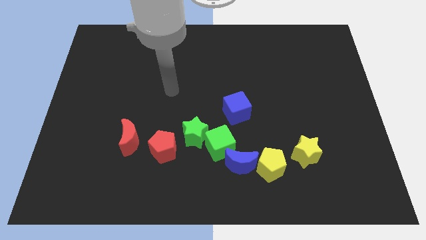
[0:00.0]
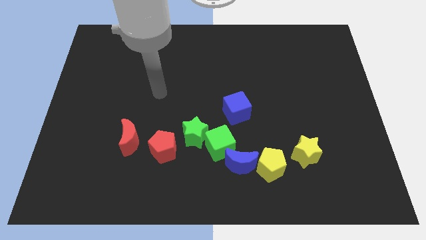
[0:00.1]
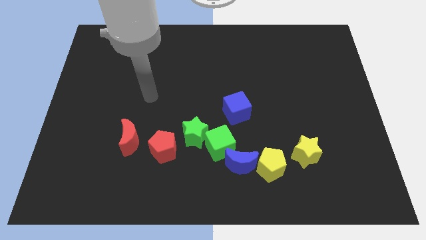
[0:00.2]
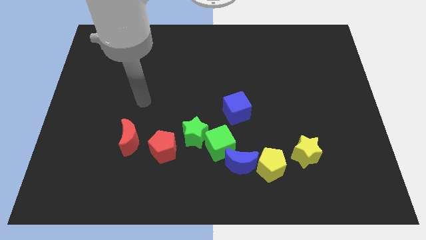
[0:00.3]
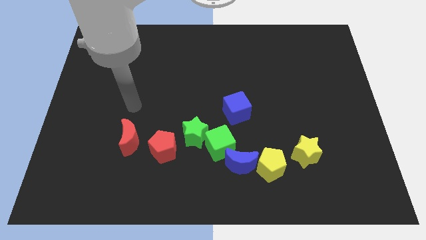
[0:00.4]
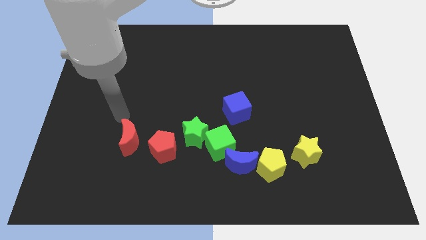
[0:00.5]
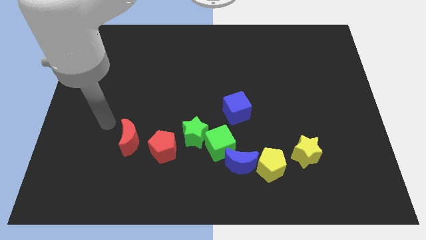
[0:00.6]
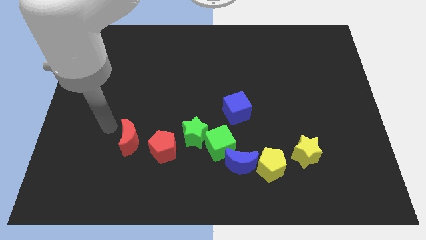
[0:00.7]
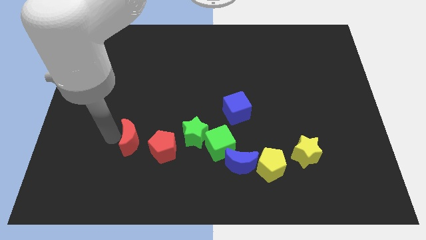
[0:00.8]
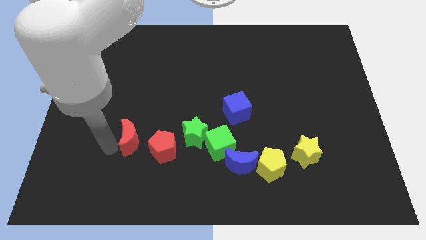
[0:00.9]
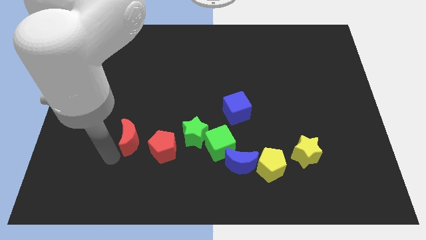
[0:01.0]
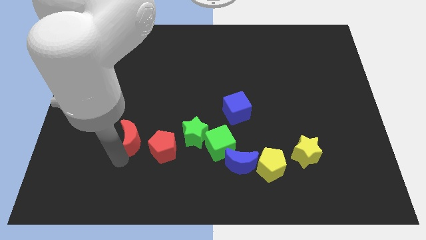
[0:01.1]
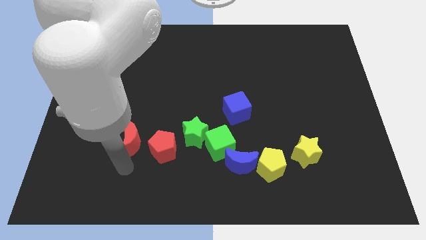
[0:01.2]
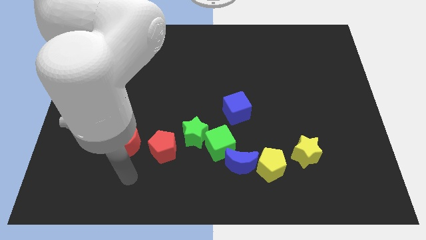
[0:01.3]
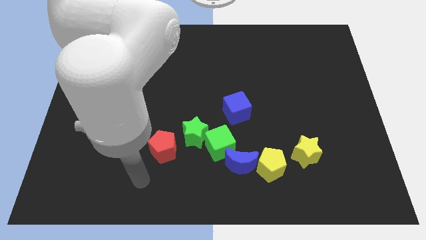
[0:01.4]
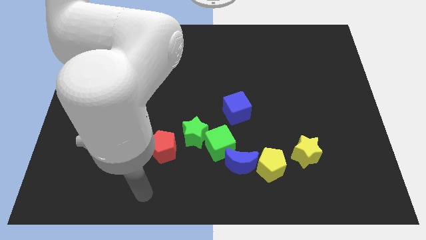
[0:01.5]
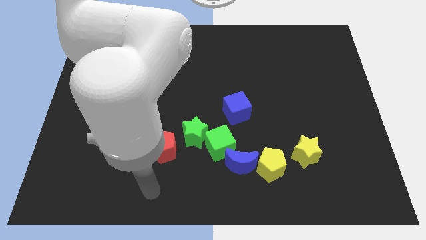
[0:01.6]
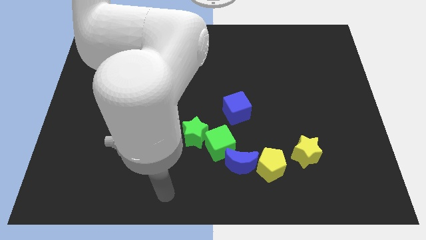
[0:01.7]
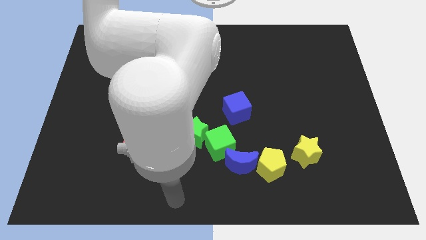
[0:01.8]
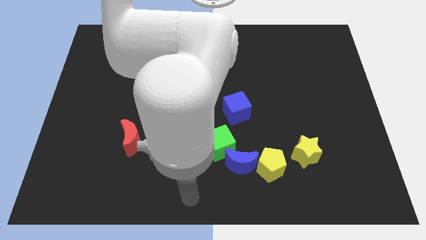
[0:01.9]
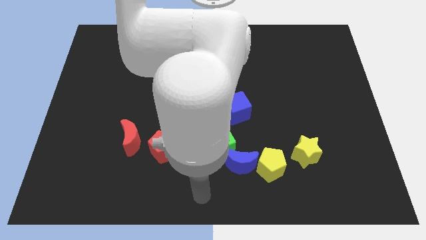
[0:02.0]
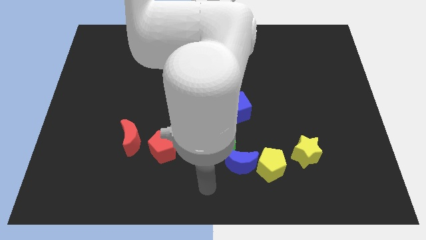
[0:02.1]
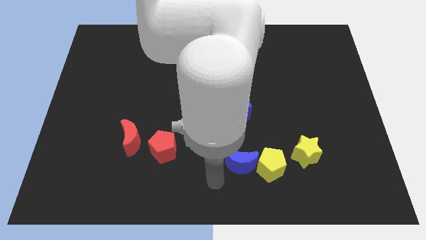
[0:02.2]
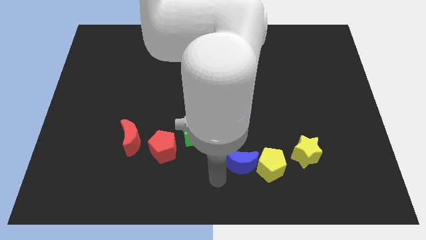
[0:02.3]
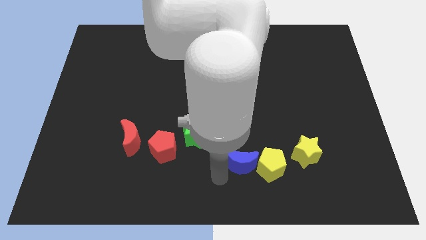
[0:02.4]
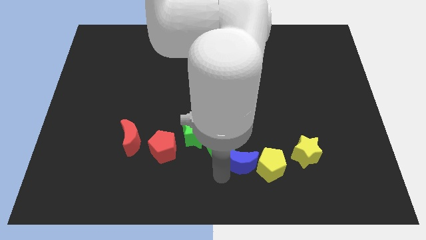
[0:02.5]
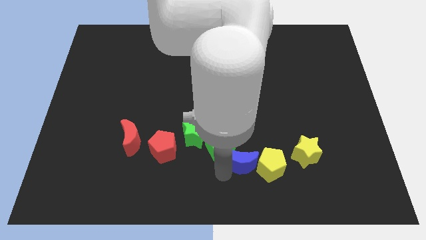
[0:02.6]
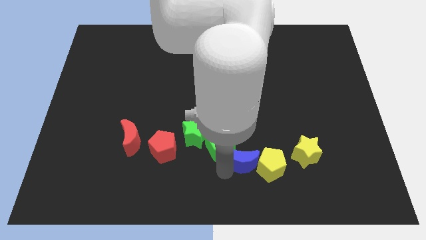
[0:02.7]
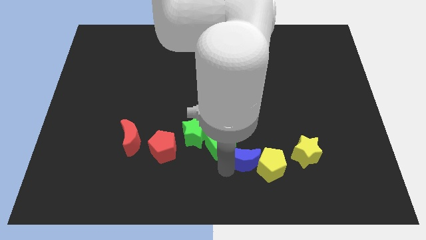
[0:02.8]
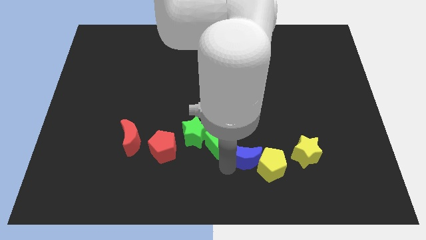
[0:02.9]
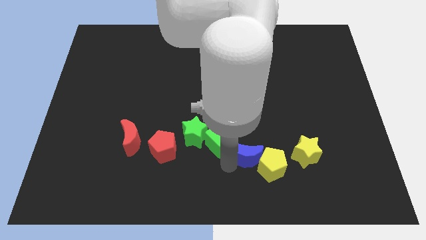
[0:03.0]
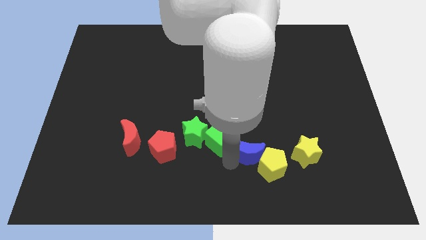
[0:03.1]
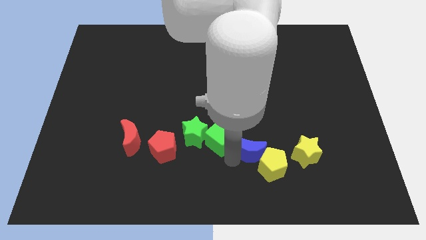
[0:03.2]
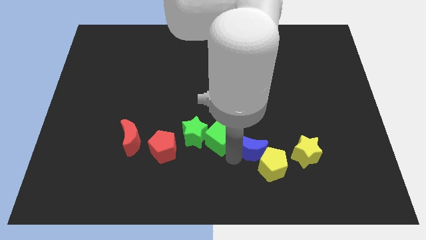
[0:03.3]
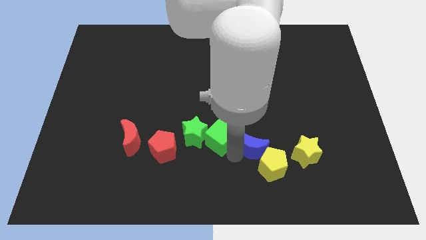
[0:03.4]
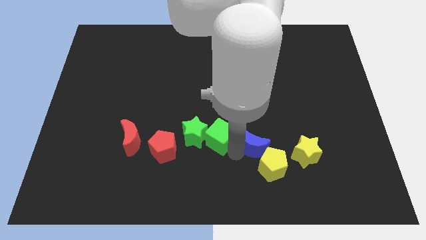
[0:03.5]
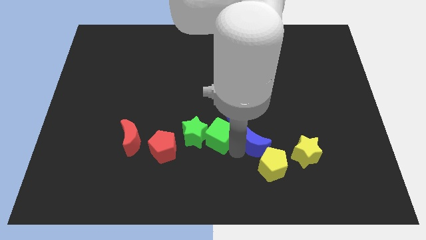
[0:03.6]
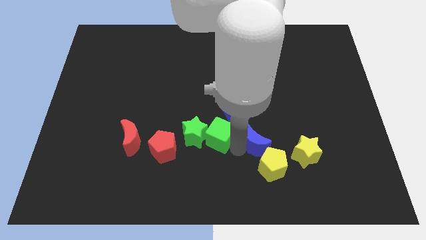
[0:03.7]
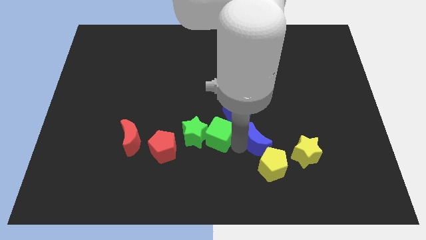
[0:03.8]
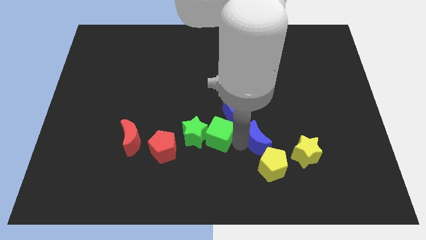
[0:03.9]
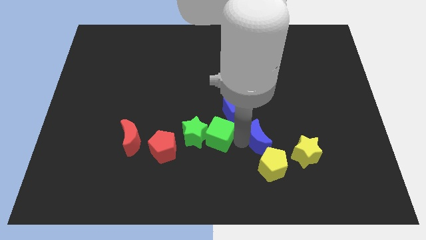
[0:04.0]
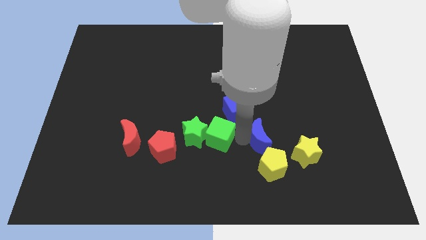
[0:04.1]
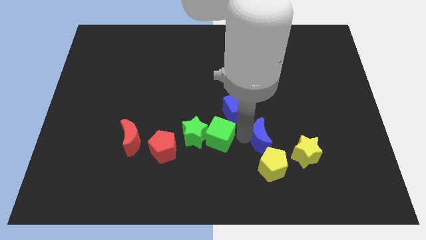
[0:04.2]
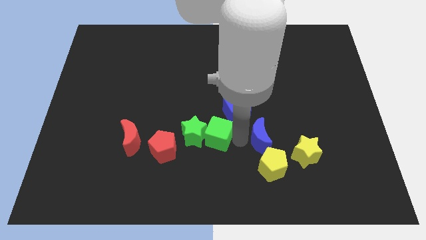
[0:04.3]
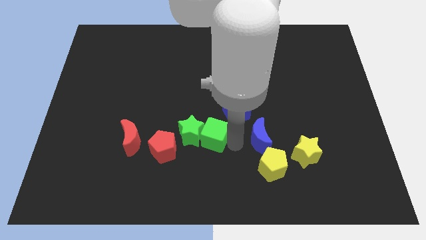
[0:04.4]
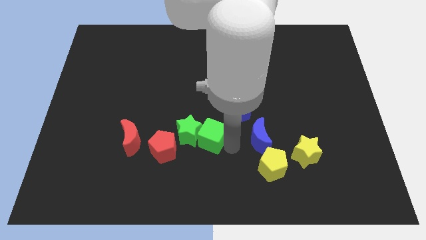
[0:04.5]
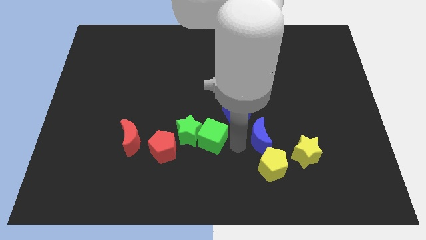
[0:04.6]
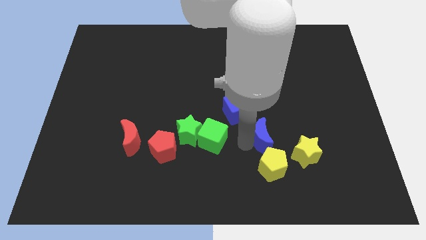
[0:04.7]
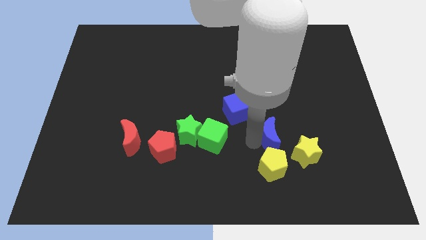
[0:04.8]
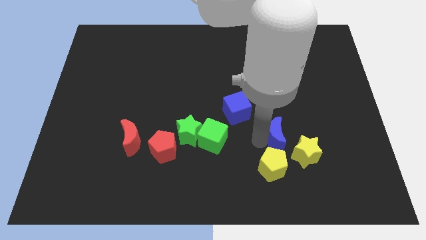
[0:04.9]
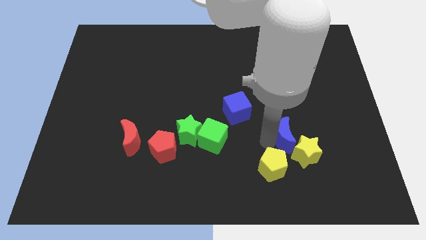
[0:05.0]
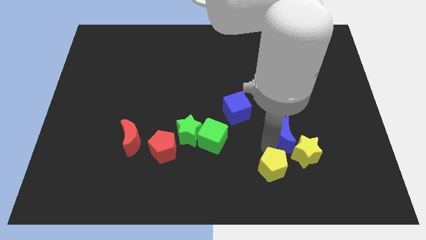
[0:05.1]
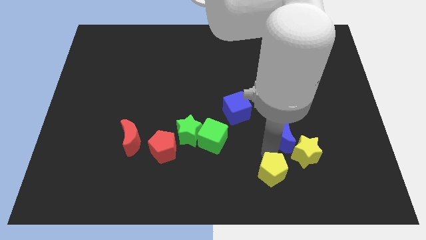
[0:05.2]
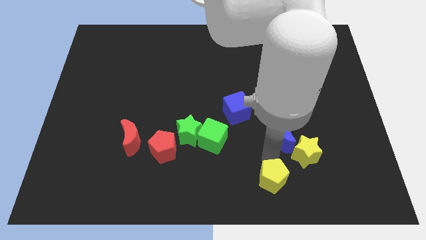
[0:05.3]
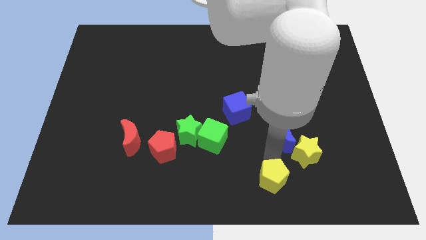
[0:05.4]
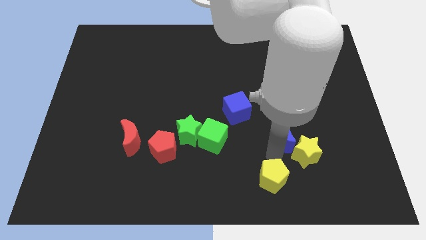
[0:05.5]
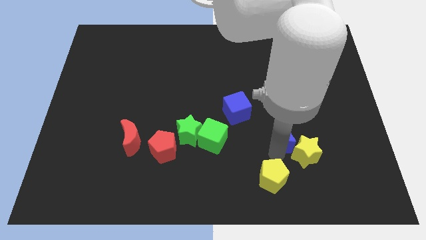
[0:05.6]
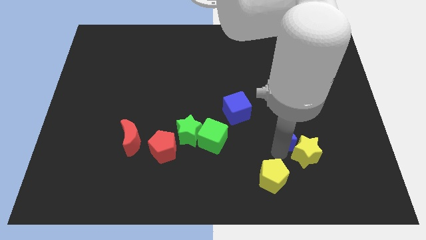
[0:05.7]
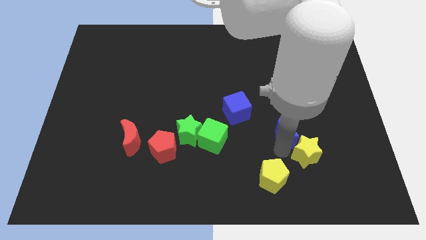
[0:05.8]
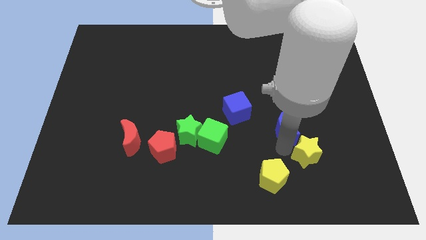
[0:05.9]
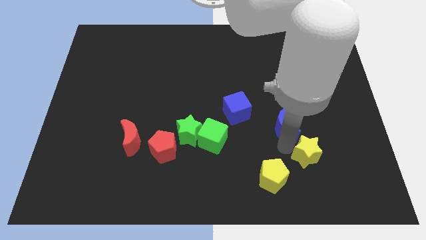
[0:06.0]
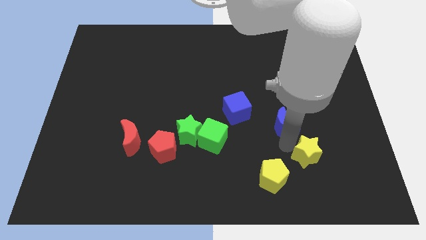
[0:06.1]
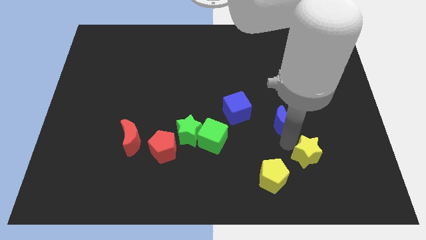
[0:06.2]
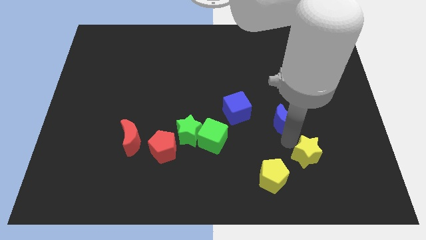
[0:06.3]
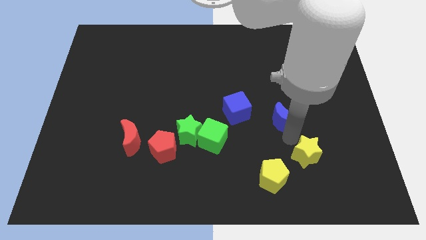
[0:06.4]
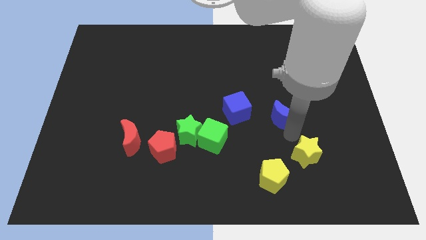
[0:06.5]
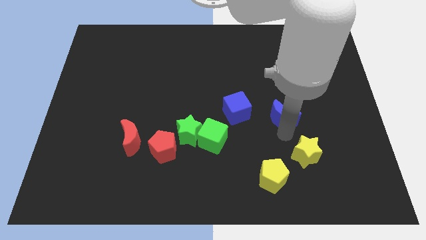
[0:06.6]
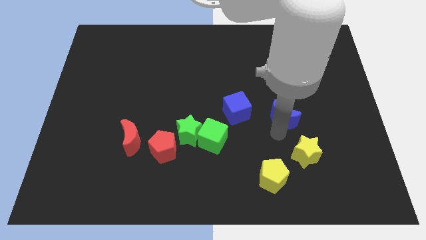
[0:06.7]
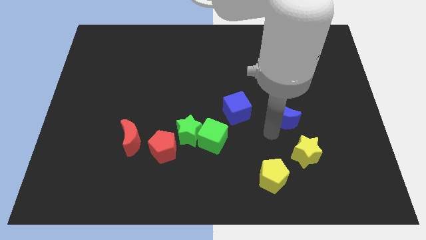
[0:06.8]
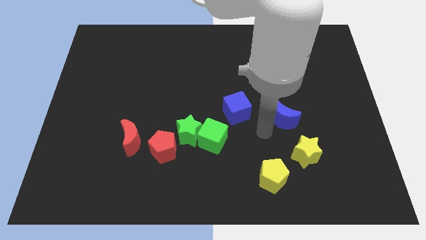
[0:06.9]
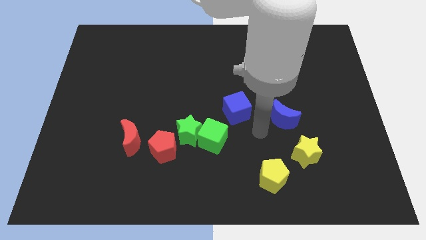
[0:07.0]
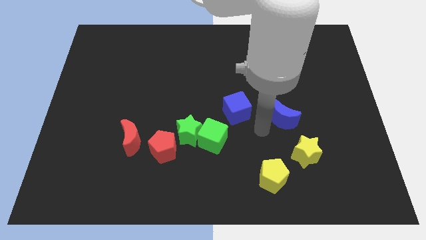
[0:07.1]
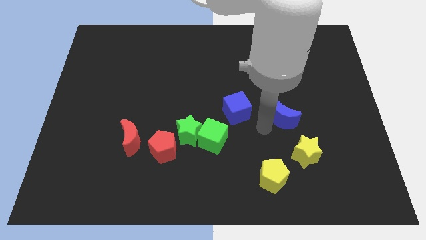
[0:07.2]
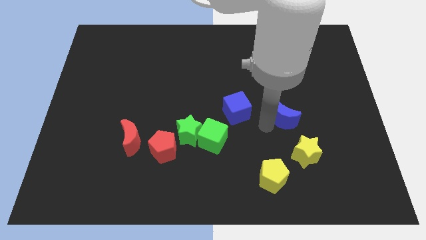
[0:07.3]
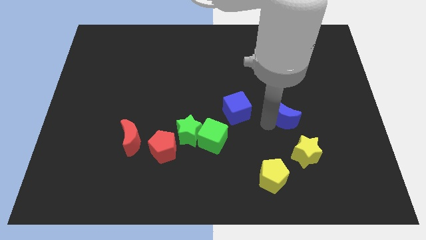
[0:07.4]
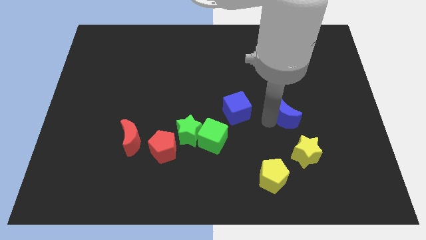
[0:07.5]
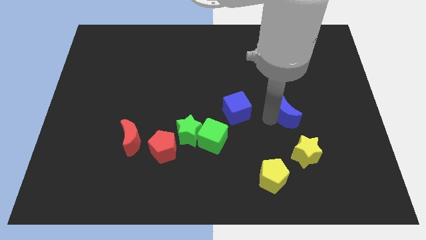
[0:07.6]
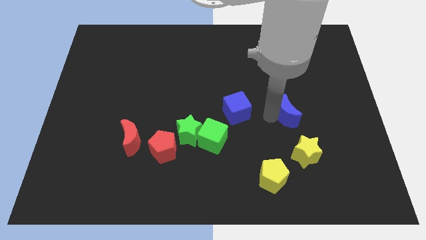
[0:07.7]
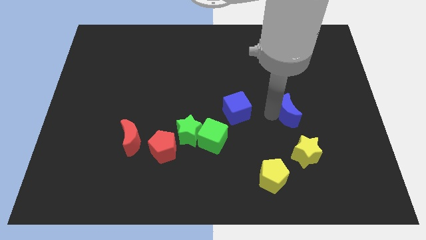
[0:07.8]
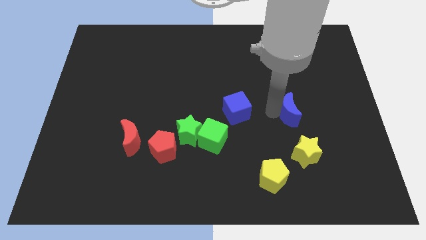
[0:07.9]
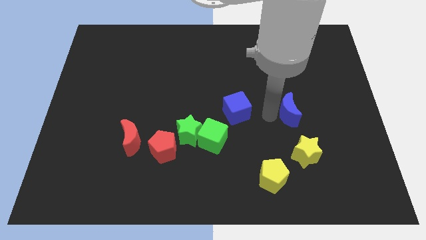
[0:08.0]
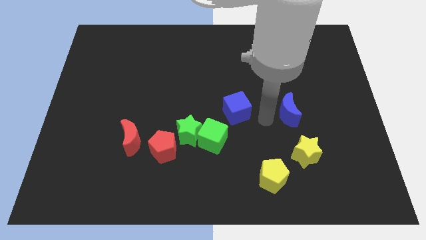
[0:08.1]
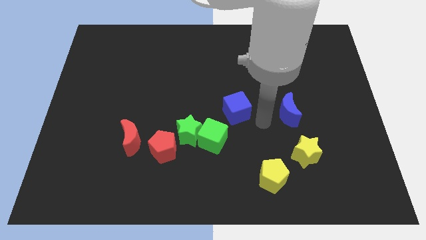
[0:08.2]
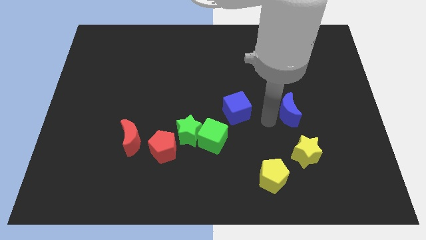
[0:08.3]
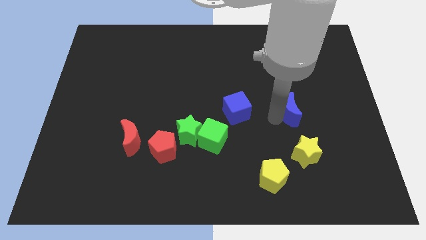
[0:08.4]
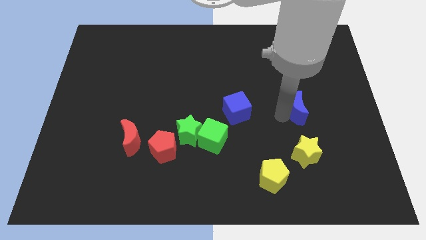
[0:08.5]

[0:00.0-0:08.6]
push the blue moon diagonally upwards and to the right
